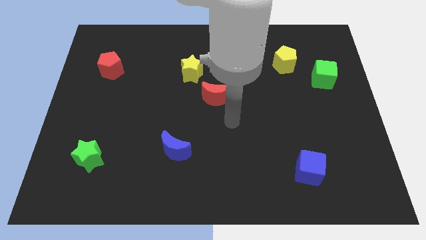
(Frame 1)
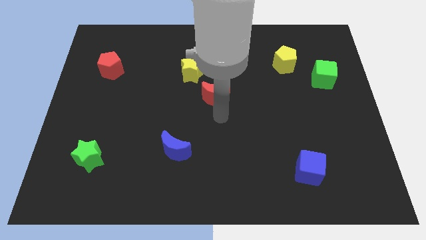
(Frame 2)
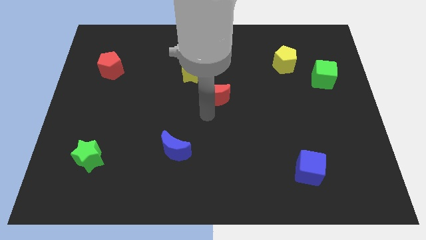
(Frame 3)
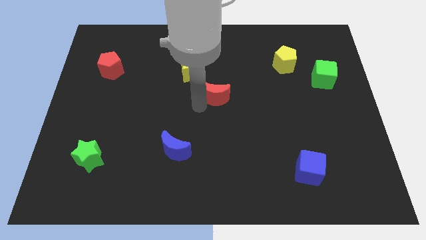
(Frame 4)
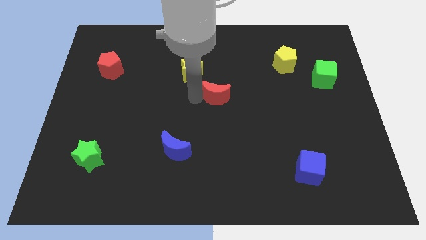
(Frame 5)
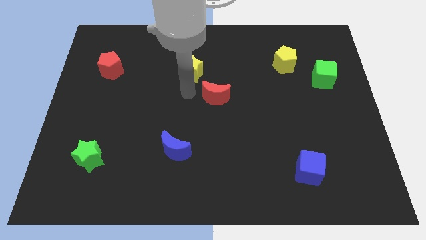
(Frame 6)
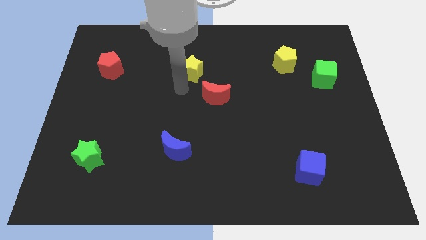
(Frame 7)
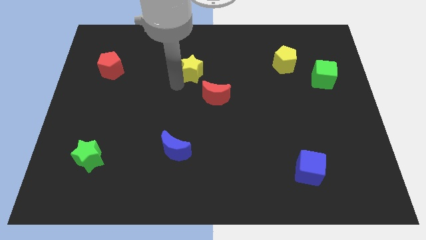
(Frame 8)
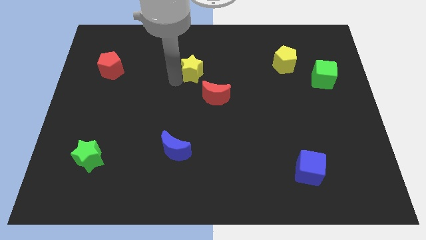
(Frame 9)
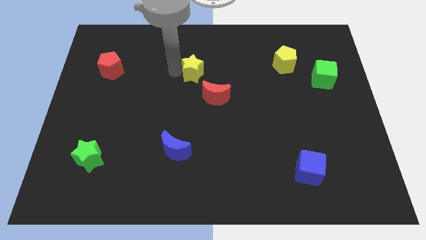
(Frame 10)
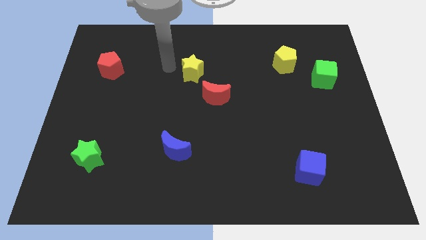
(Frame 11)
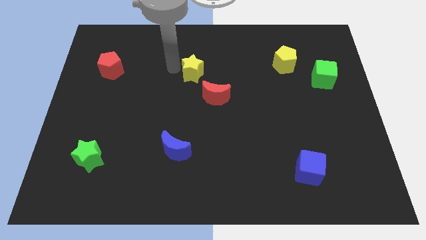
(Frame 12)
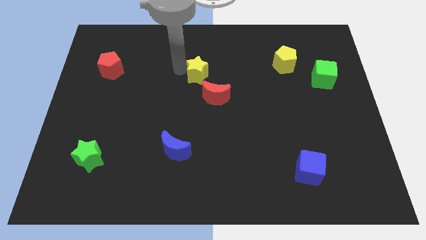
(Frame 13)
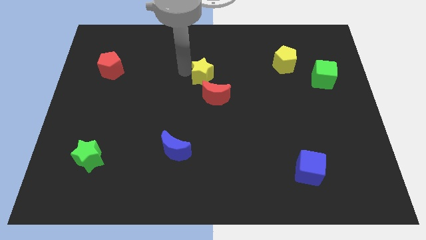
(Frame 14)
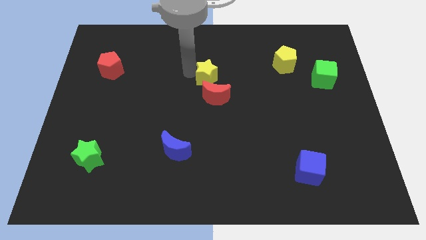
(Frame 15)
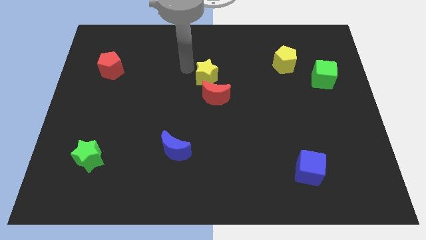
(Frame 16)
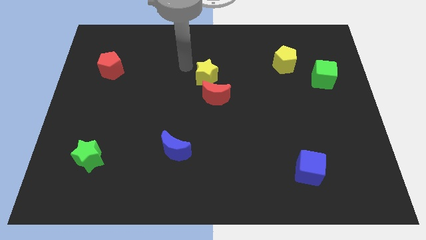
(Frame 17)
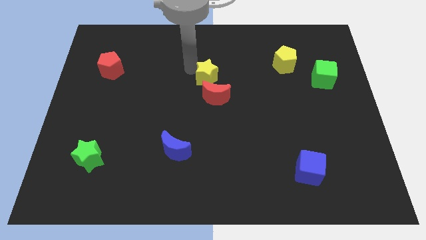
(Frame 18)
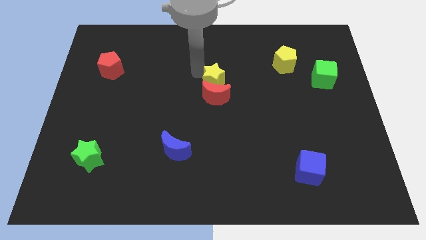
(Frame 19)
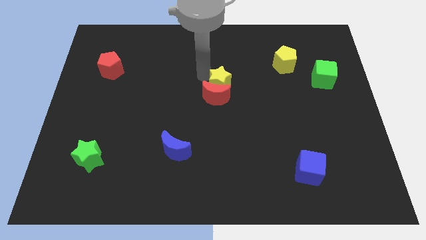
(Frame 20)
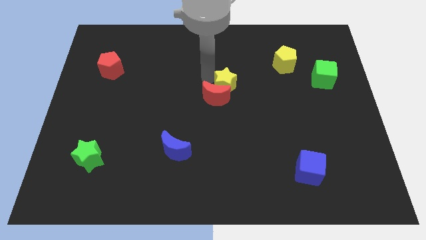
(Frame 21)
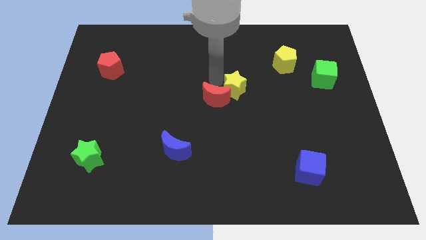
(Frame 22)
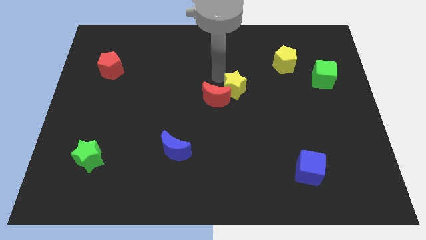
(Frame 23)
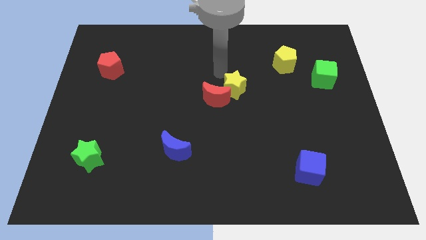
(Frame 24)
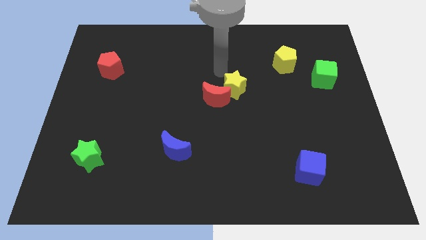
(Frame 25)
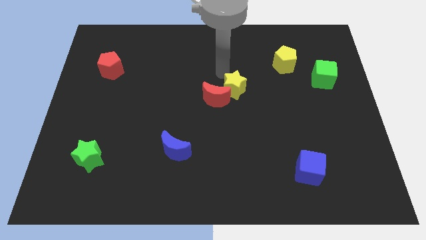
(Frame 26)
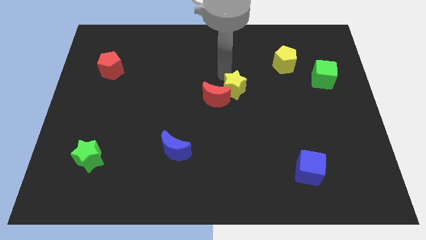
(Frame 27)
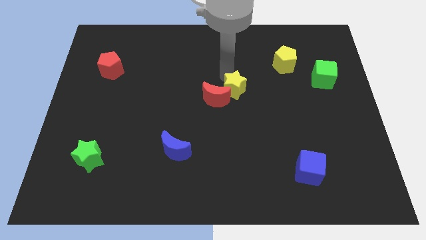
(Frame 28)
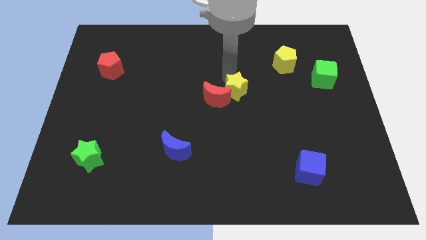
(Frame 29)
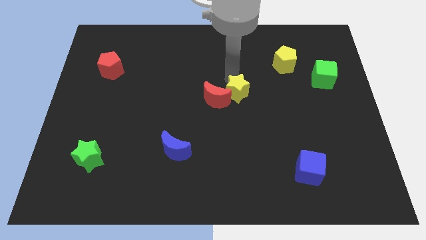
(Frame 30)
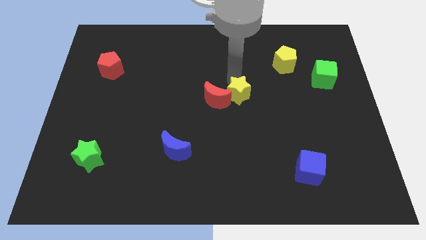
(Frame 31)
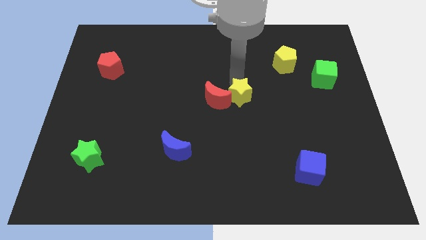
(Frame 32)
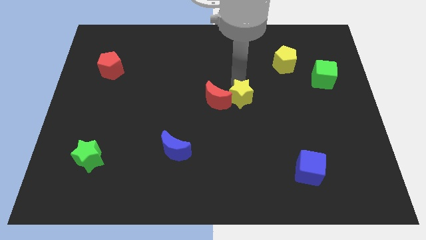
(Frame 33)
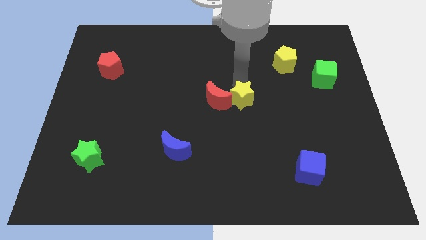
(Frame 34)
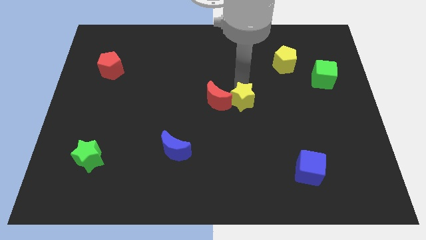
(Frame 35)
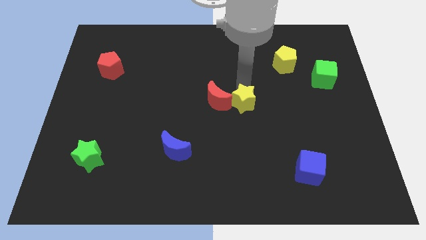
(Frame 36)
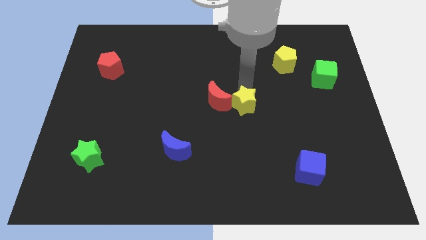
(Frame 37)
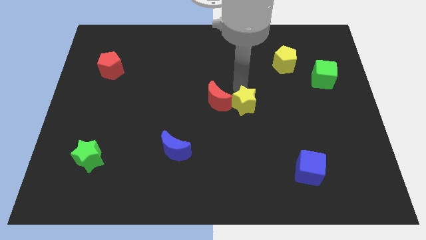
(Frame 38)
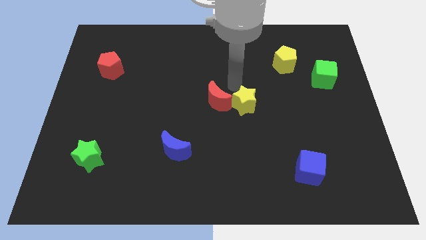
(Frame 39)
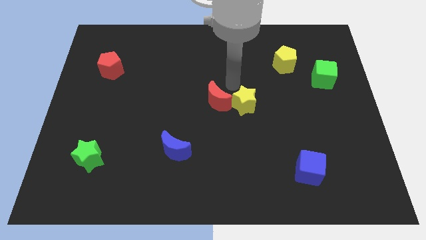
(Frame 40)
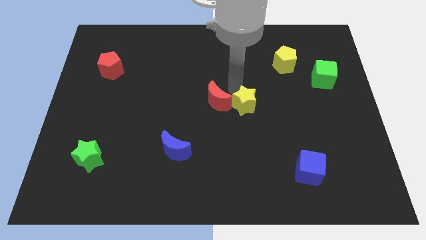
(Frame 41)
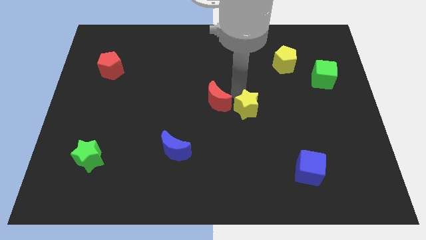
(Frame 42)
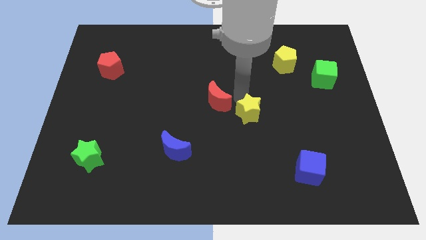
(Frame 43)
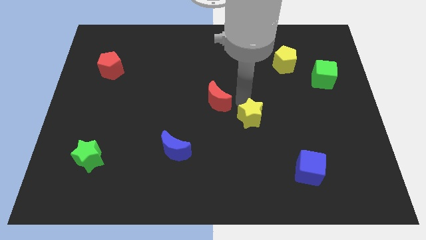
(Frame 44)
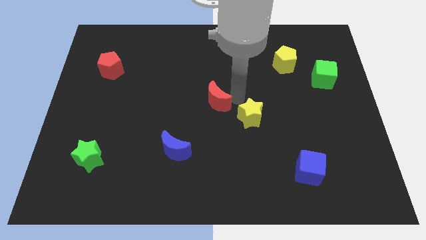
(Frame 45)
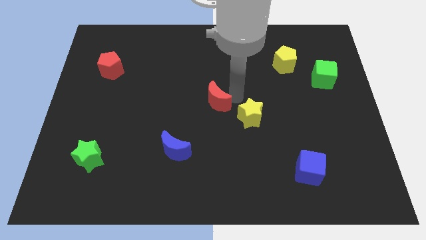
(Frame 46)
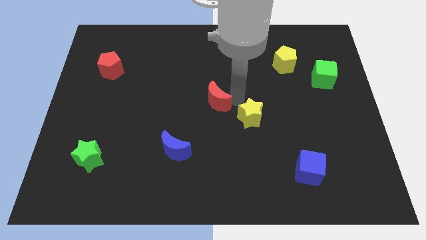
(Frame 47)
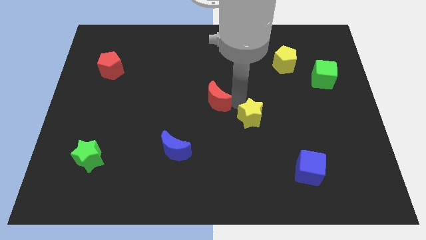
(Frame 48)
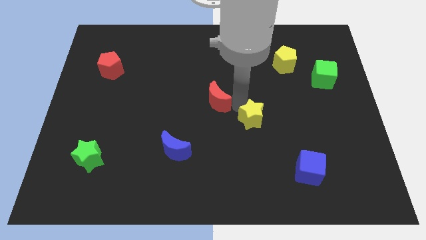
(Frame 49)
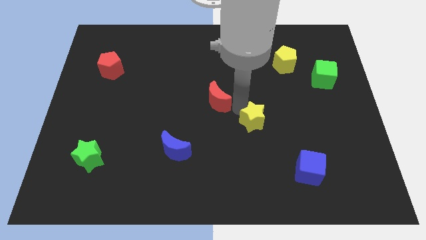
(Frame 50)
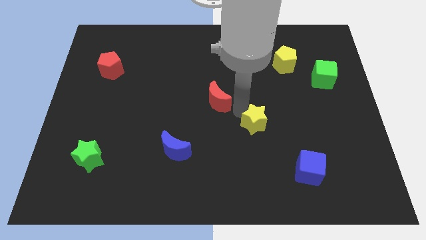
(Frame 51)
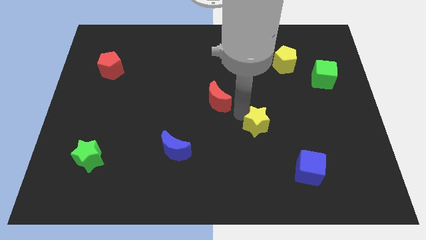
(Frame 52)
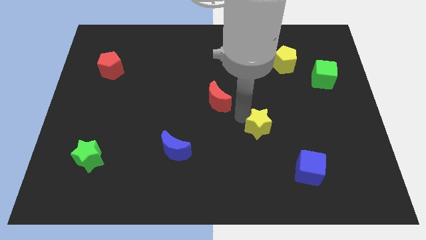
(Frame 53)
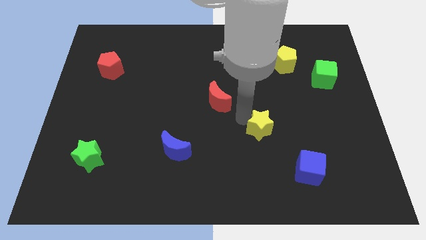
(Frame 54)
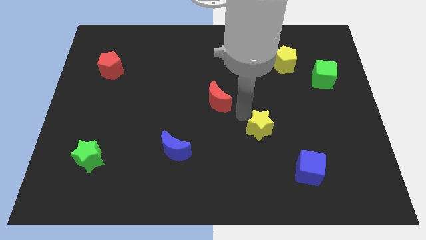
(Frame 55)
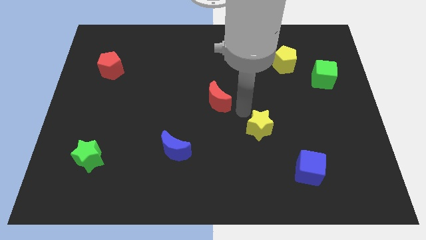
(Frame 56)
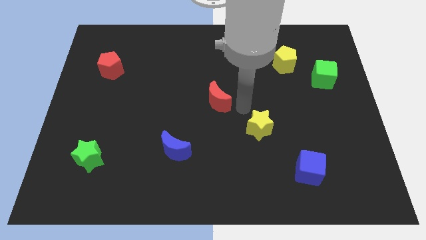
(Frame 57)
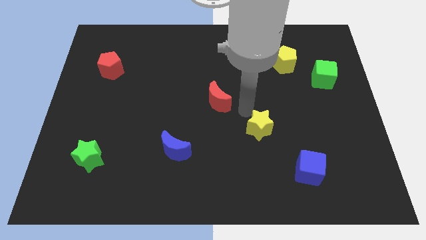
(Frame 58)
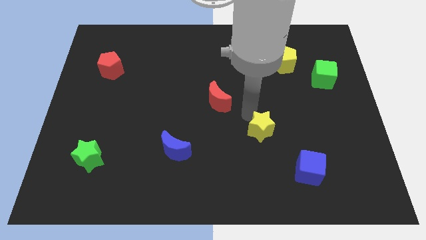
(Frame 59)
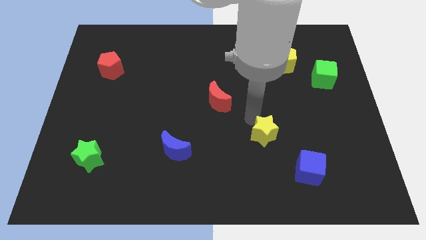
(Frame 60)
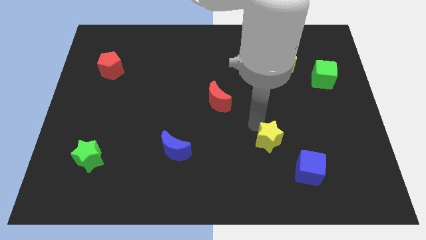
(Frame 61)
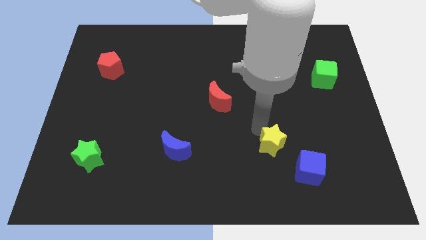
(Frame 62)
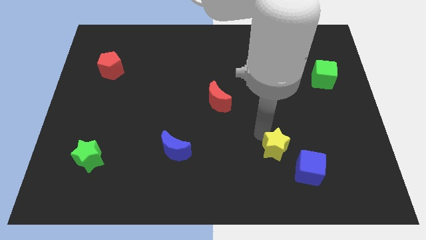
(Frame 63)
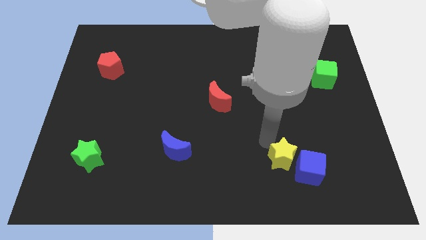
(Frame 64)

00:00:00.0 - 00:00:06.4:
slide the yellow star next to the blue cube
